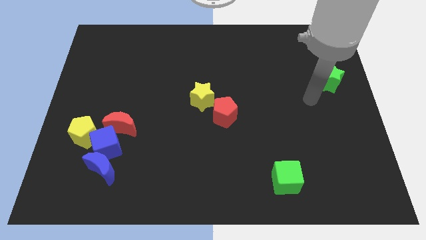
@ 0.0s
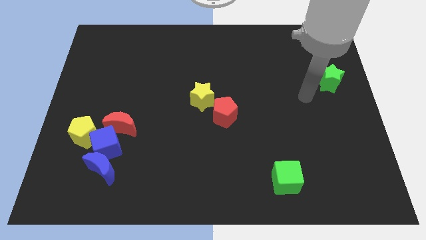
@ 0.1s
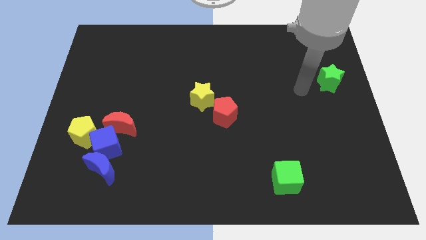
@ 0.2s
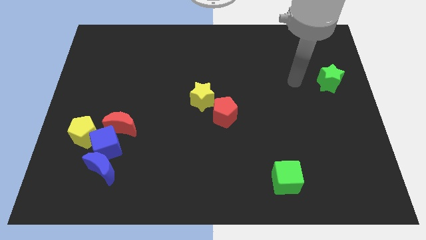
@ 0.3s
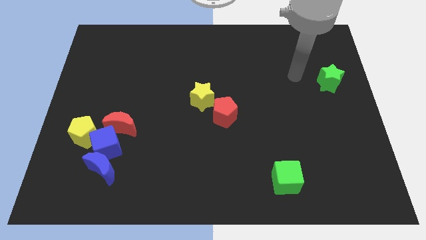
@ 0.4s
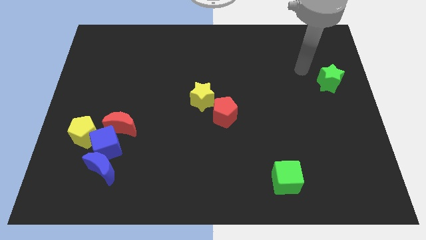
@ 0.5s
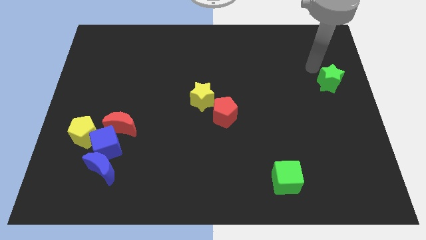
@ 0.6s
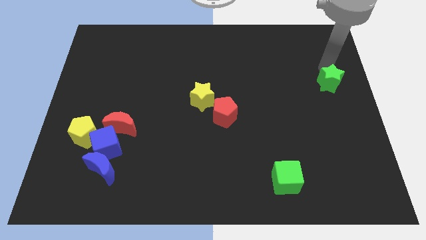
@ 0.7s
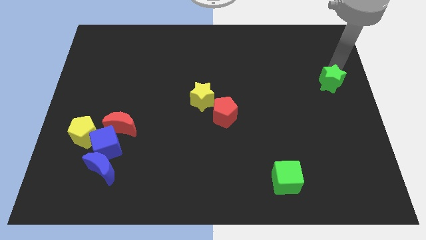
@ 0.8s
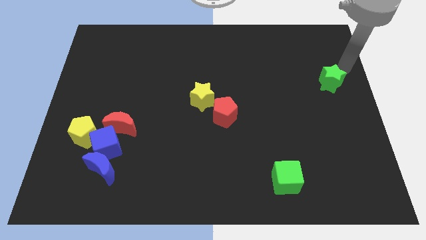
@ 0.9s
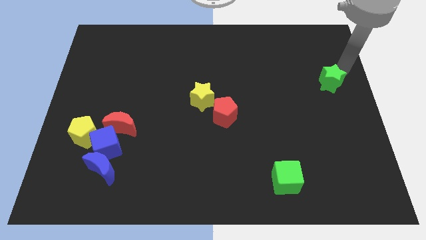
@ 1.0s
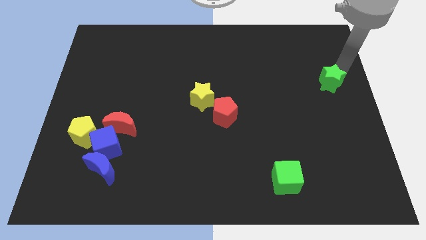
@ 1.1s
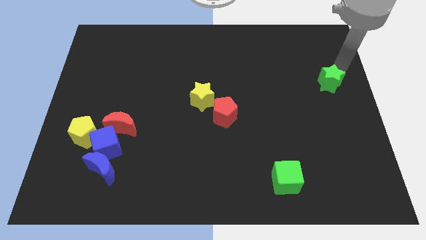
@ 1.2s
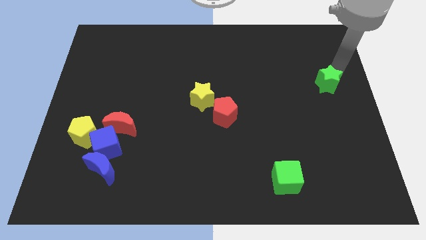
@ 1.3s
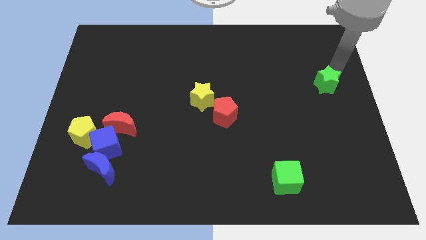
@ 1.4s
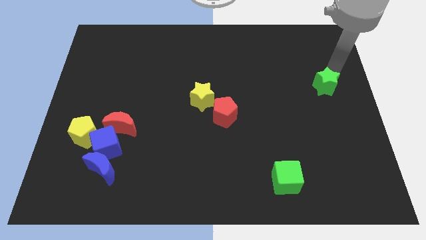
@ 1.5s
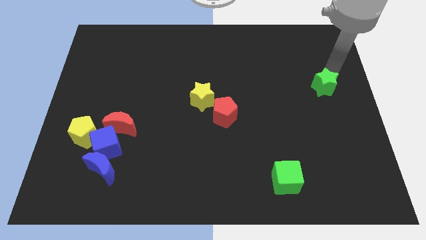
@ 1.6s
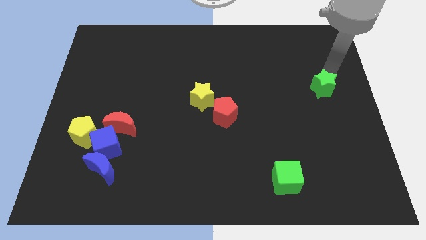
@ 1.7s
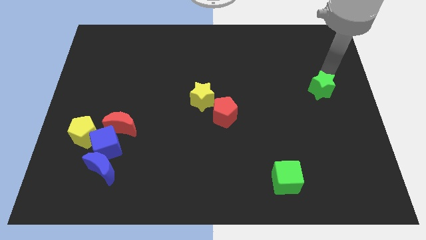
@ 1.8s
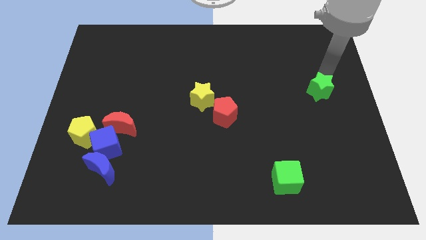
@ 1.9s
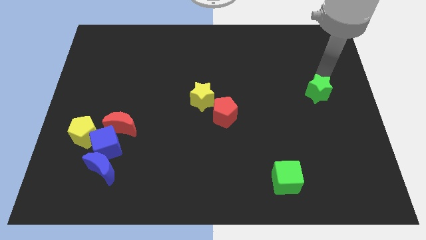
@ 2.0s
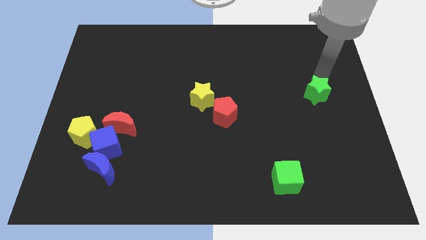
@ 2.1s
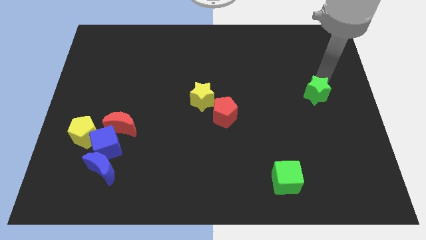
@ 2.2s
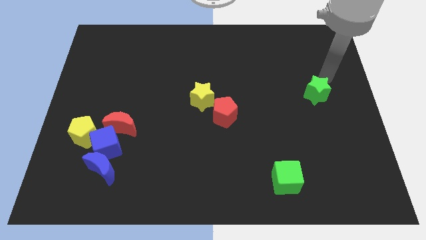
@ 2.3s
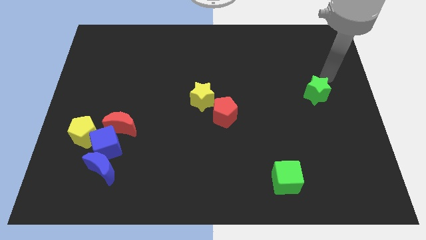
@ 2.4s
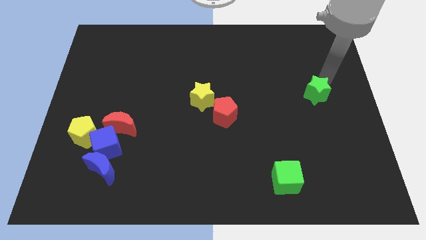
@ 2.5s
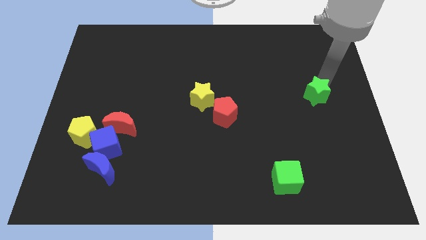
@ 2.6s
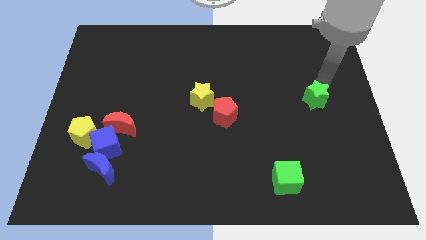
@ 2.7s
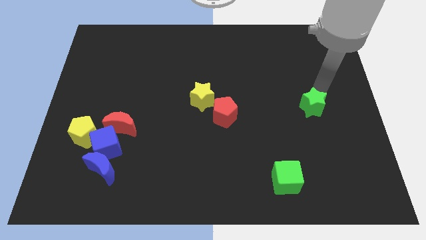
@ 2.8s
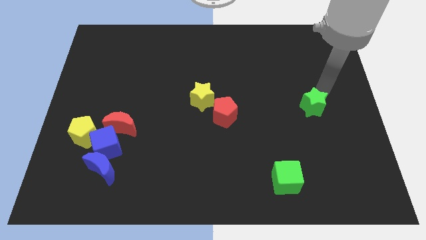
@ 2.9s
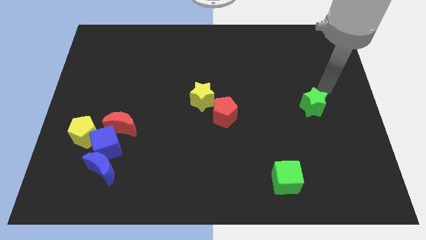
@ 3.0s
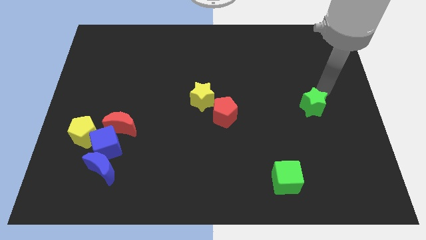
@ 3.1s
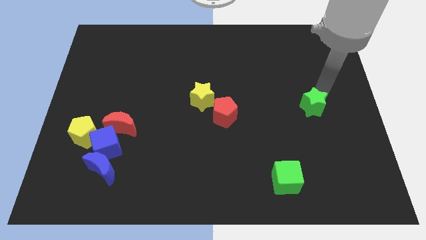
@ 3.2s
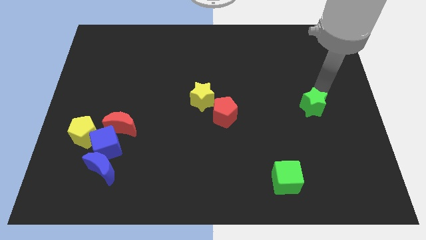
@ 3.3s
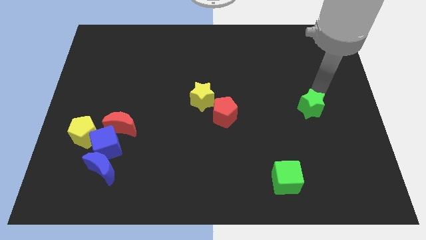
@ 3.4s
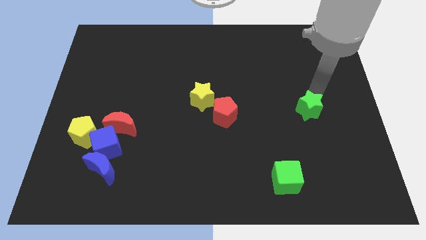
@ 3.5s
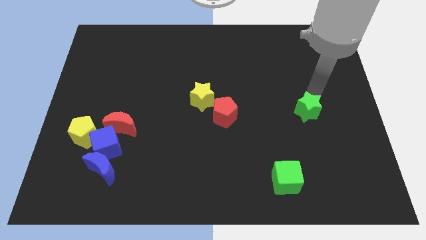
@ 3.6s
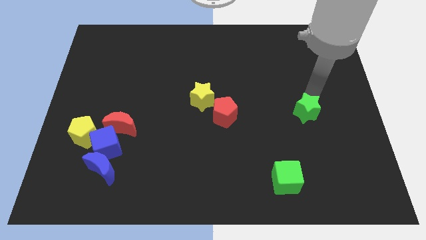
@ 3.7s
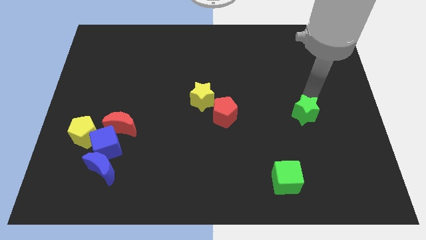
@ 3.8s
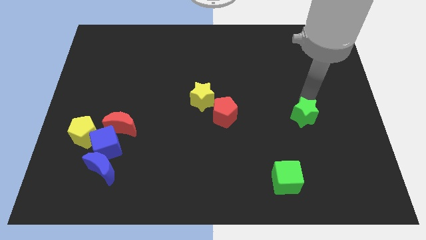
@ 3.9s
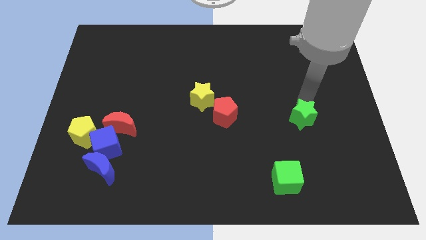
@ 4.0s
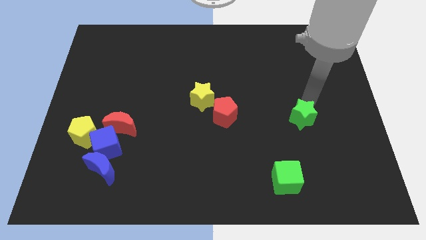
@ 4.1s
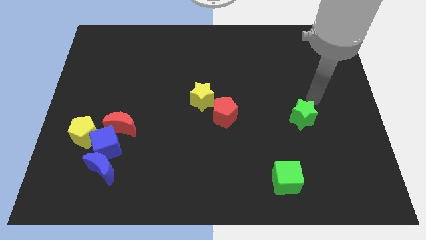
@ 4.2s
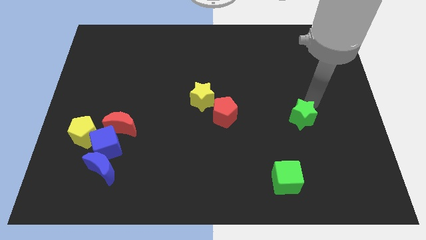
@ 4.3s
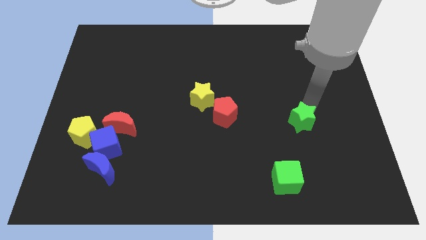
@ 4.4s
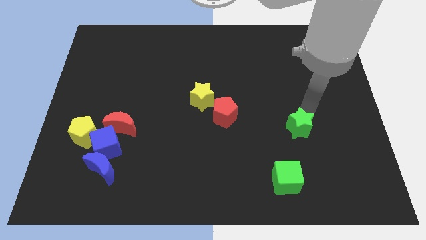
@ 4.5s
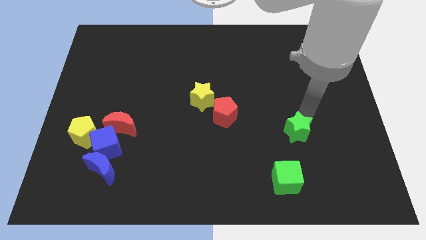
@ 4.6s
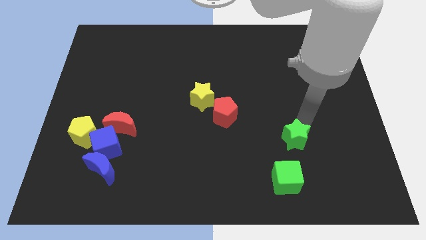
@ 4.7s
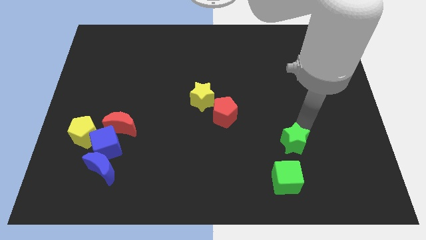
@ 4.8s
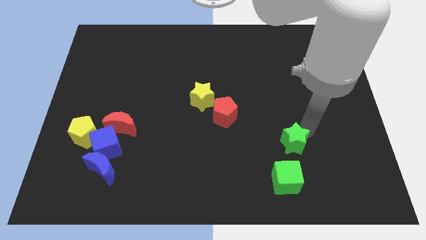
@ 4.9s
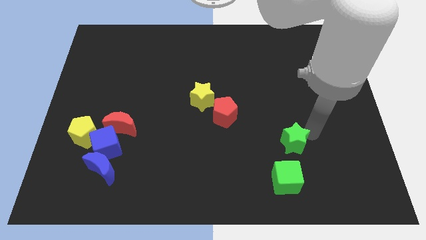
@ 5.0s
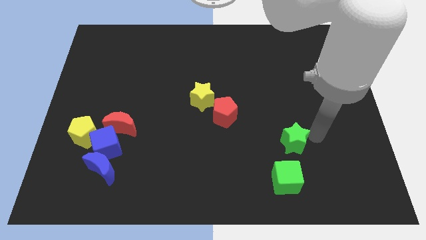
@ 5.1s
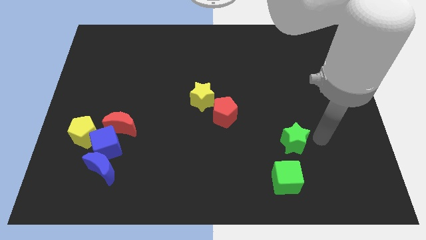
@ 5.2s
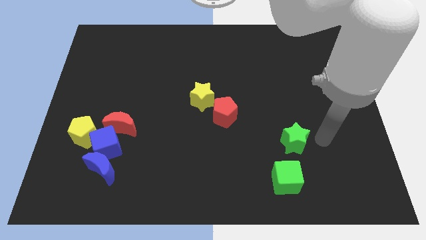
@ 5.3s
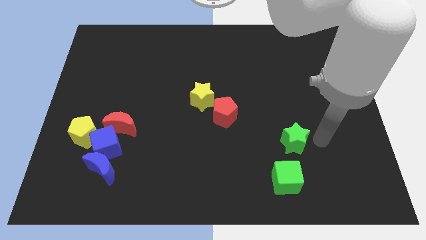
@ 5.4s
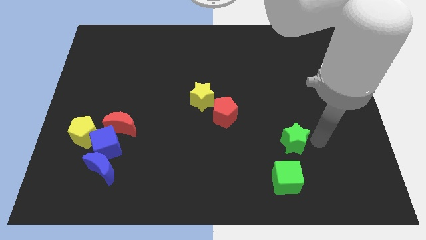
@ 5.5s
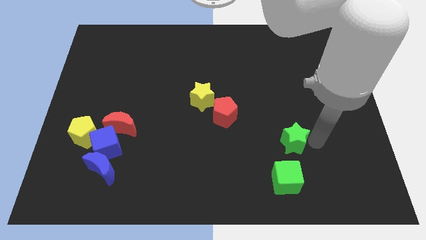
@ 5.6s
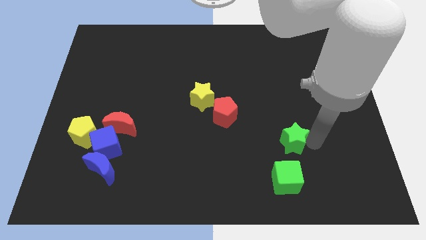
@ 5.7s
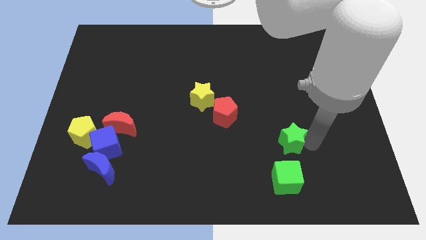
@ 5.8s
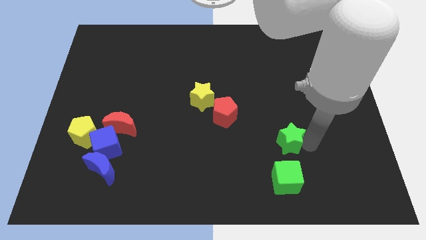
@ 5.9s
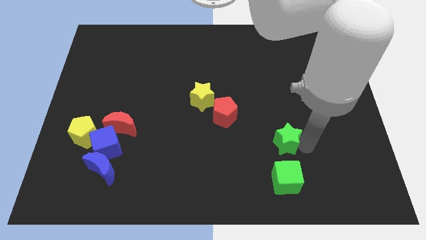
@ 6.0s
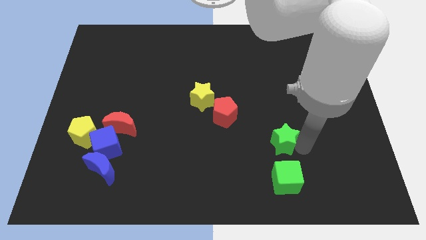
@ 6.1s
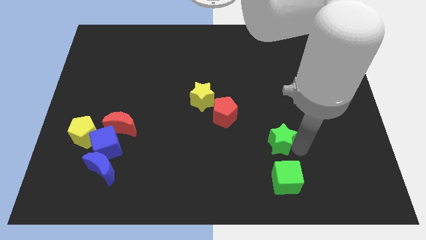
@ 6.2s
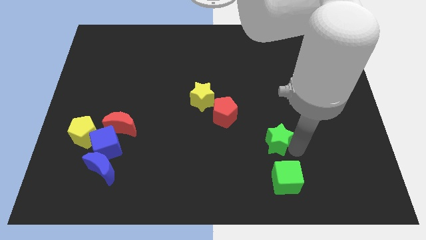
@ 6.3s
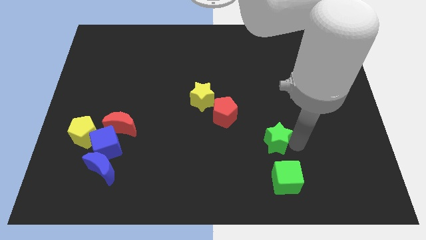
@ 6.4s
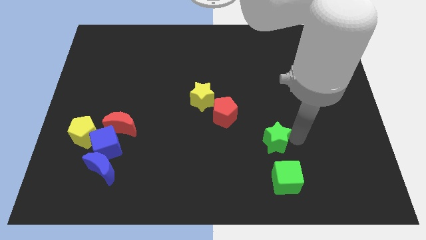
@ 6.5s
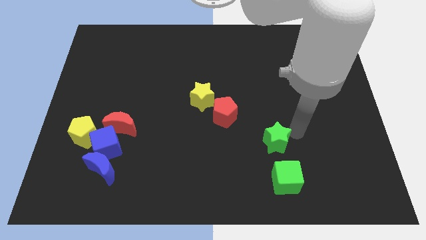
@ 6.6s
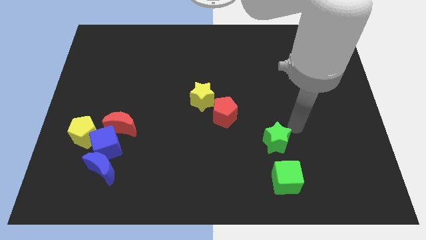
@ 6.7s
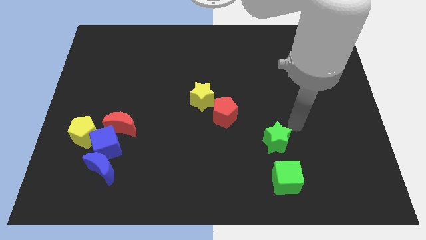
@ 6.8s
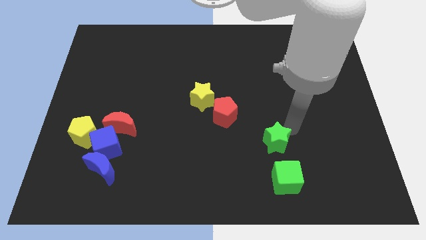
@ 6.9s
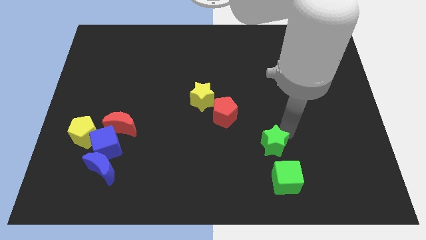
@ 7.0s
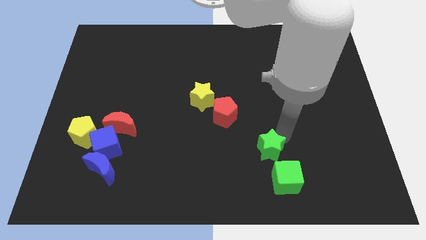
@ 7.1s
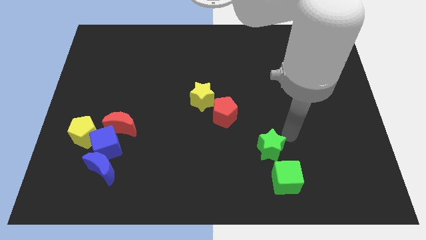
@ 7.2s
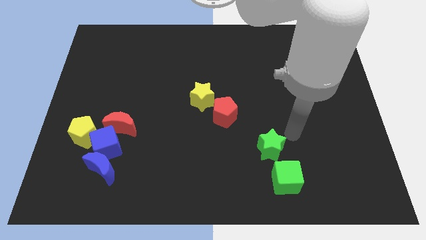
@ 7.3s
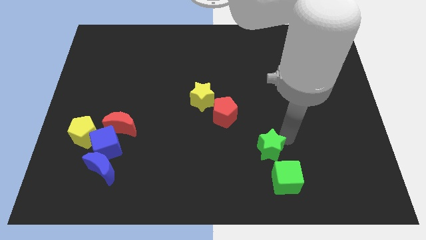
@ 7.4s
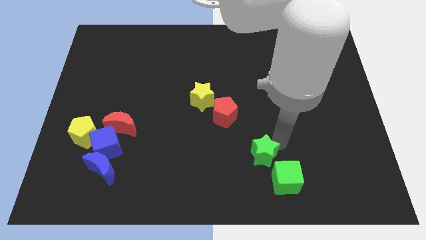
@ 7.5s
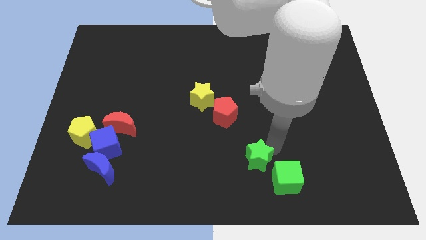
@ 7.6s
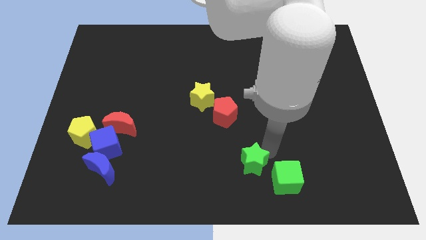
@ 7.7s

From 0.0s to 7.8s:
move the green star to the bottom
